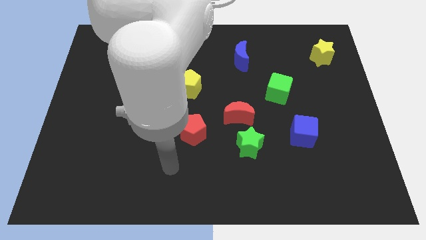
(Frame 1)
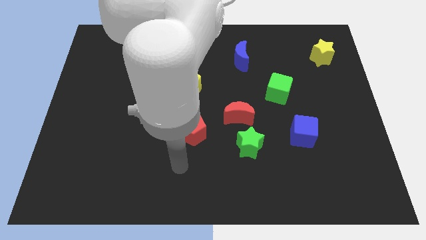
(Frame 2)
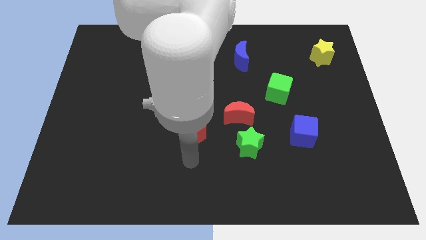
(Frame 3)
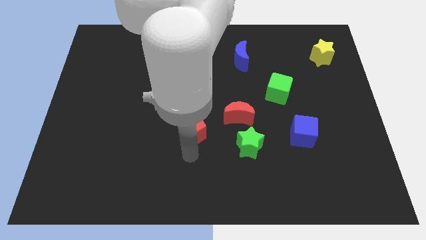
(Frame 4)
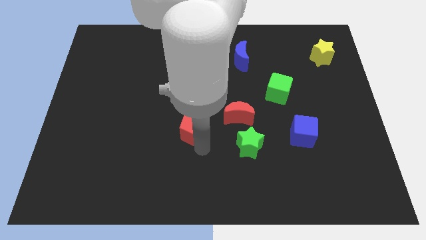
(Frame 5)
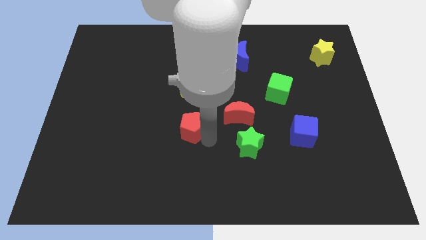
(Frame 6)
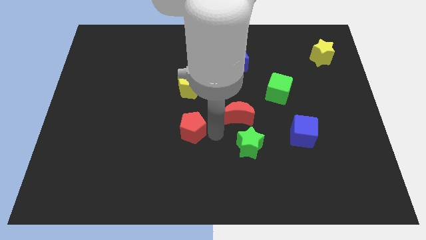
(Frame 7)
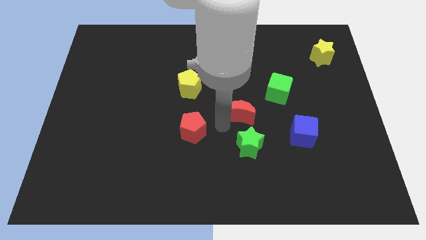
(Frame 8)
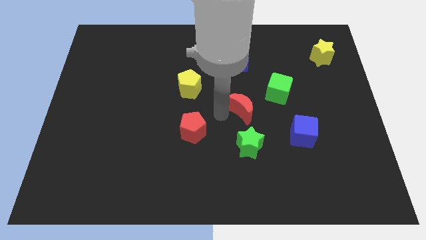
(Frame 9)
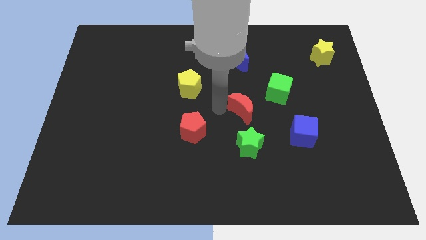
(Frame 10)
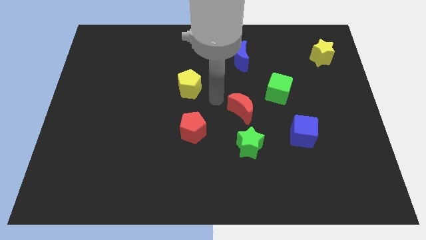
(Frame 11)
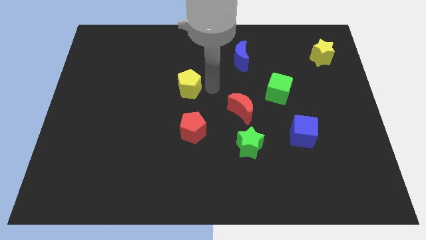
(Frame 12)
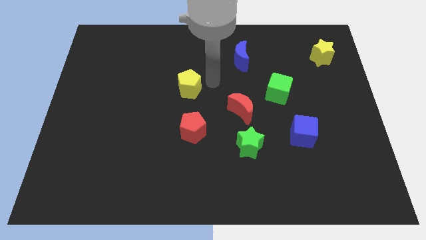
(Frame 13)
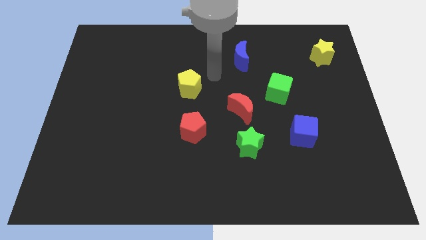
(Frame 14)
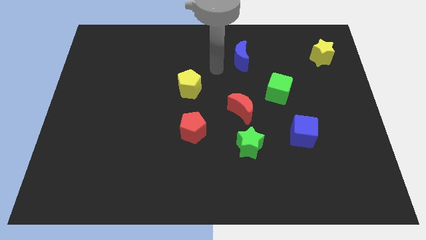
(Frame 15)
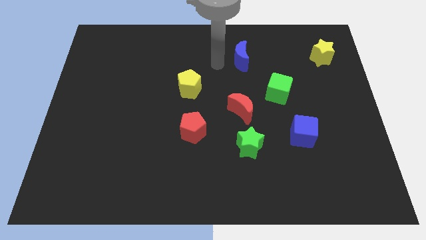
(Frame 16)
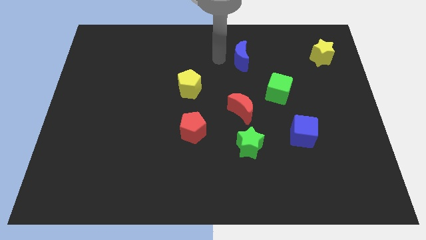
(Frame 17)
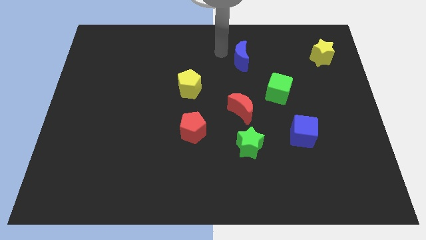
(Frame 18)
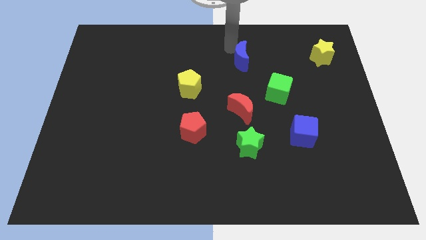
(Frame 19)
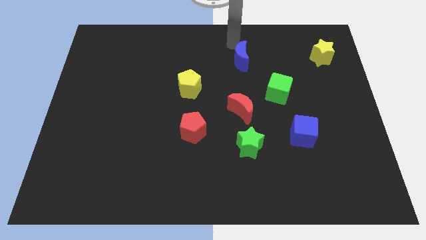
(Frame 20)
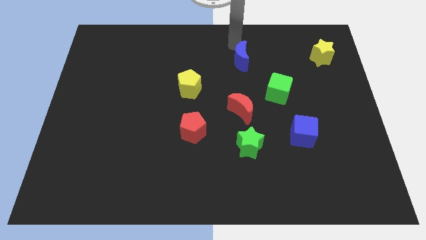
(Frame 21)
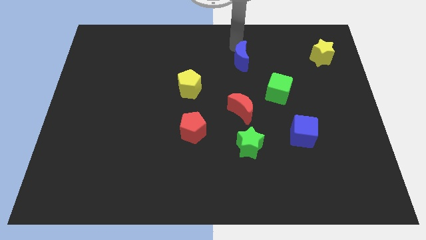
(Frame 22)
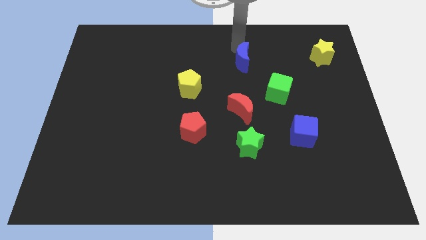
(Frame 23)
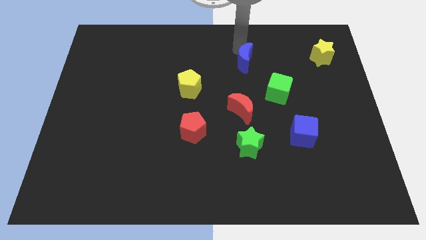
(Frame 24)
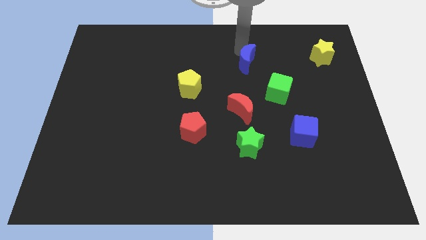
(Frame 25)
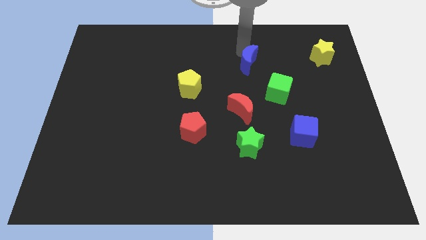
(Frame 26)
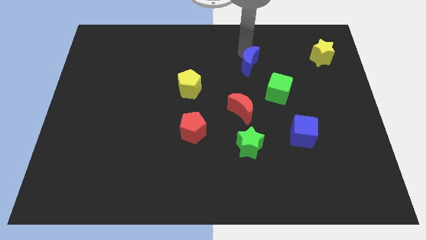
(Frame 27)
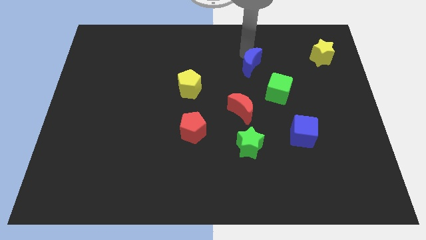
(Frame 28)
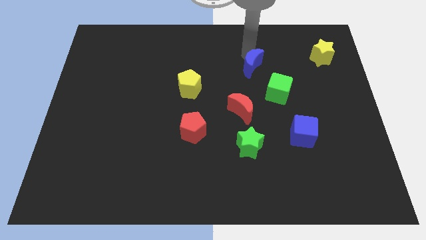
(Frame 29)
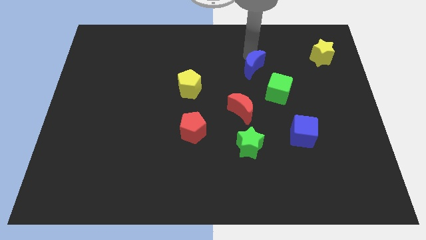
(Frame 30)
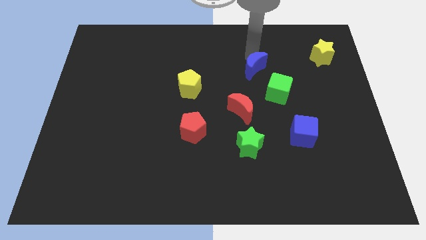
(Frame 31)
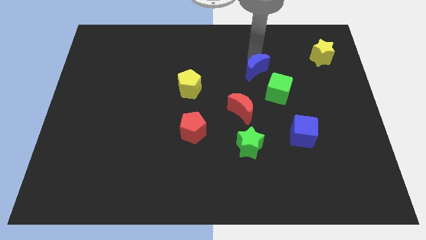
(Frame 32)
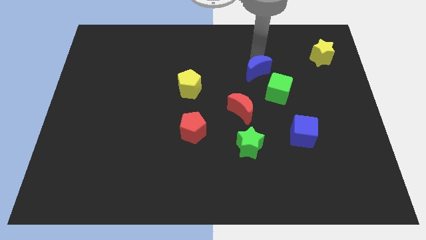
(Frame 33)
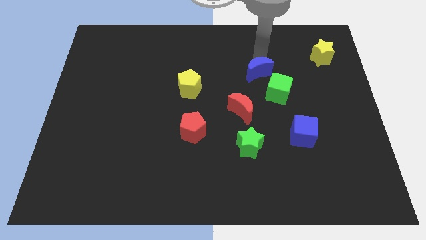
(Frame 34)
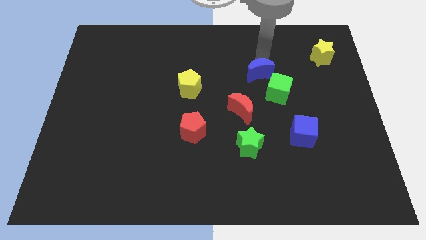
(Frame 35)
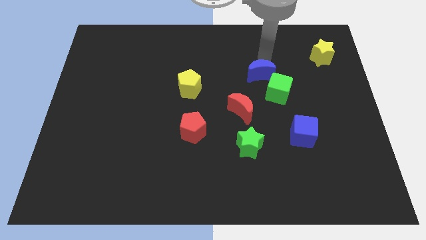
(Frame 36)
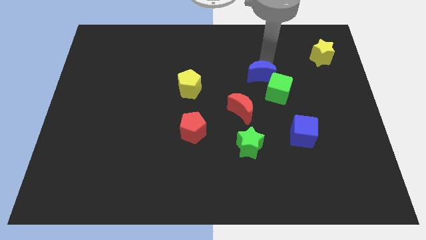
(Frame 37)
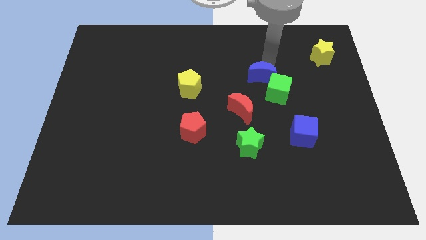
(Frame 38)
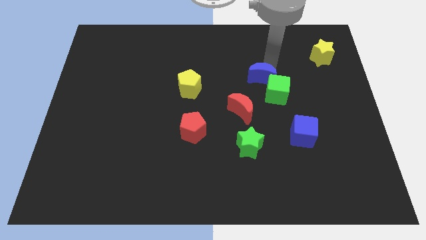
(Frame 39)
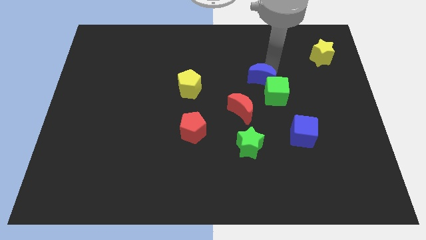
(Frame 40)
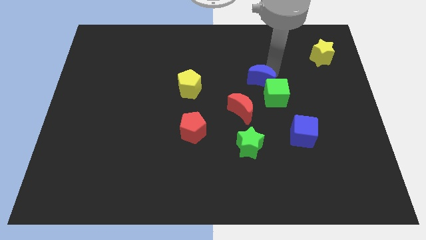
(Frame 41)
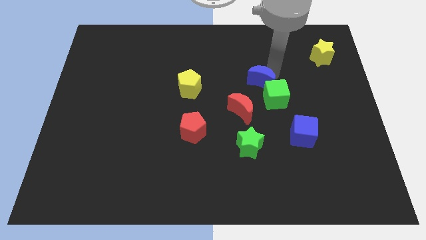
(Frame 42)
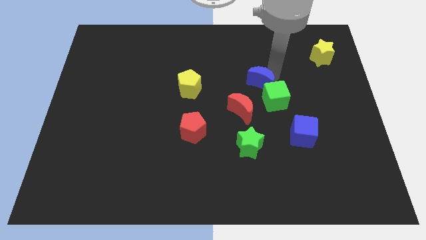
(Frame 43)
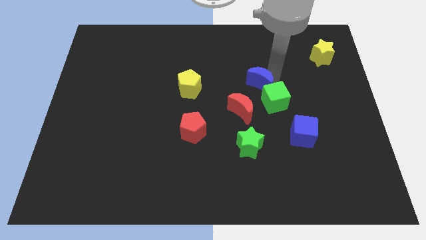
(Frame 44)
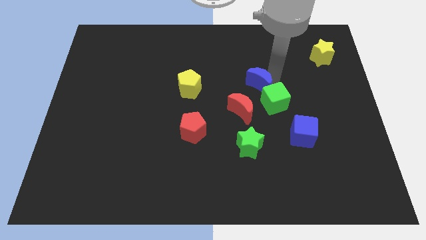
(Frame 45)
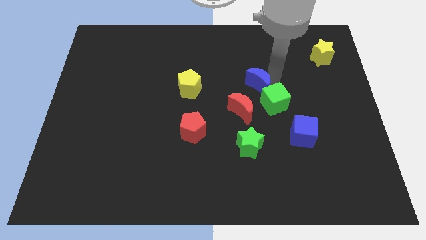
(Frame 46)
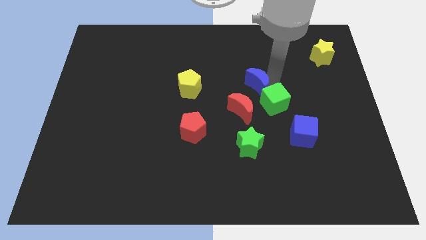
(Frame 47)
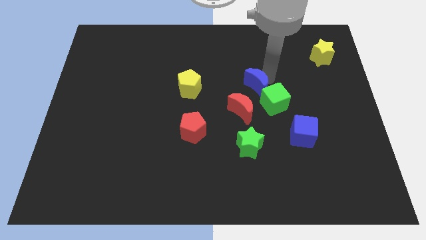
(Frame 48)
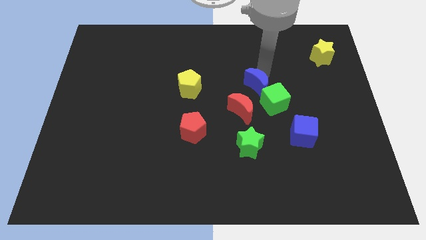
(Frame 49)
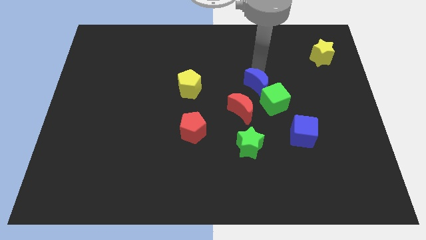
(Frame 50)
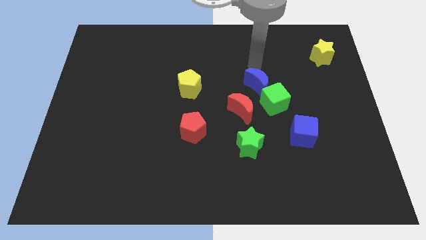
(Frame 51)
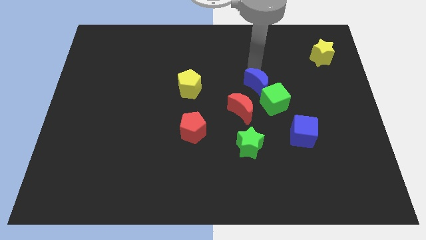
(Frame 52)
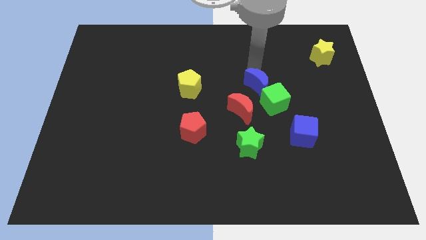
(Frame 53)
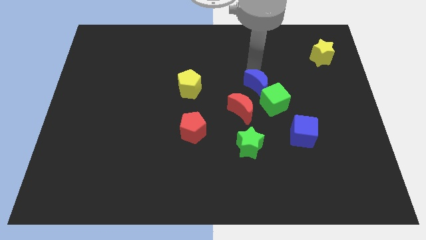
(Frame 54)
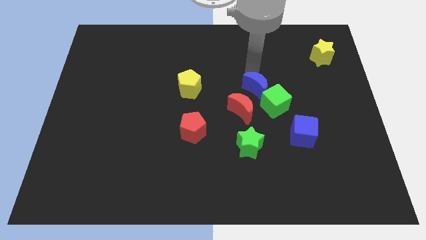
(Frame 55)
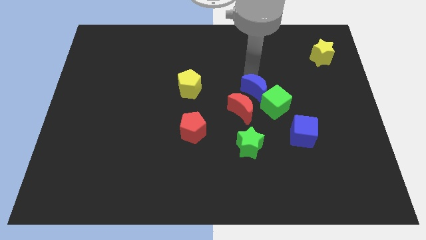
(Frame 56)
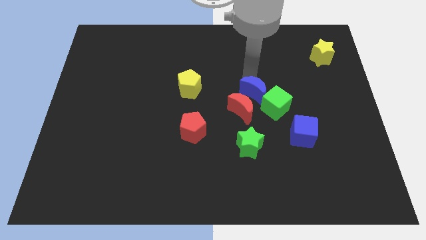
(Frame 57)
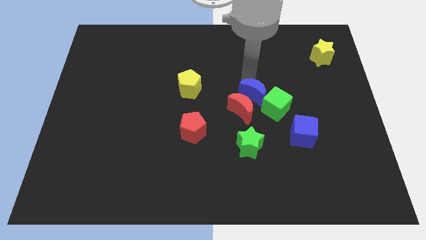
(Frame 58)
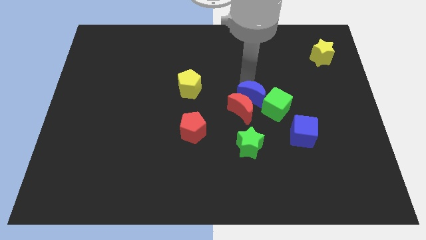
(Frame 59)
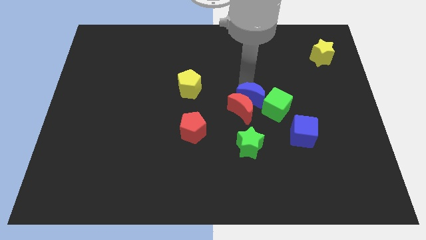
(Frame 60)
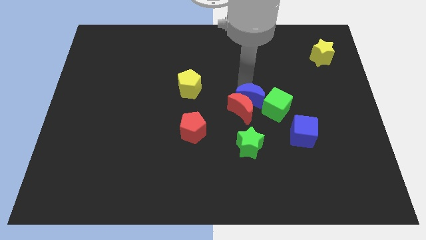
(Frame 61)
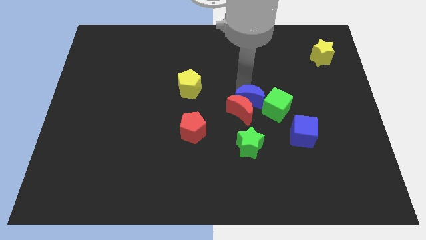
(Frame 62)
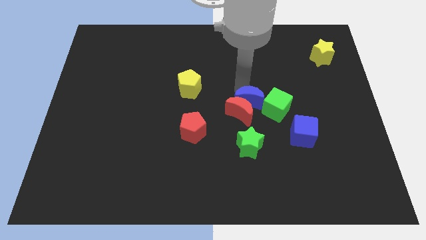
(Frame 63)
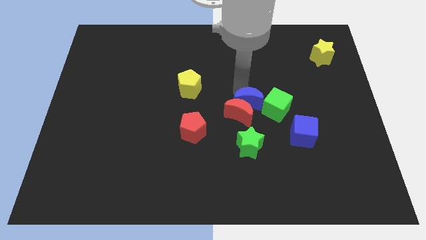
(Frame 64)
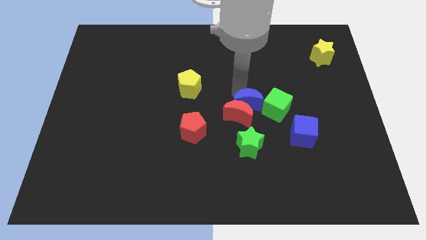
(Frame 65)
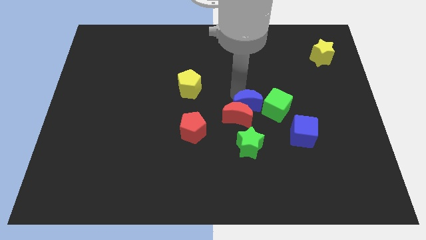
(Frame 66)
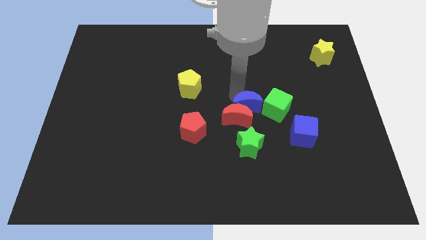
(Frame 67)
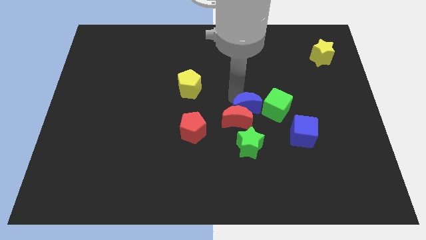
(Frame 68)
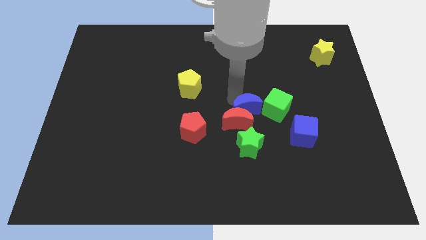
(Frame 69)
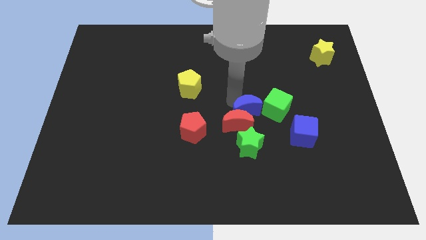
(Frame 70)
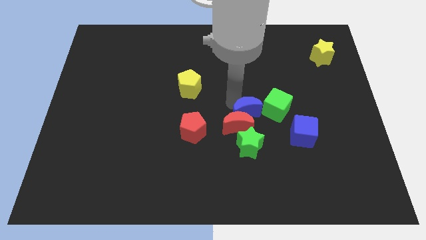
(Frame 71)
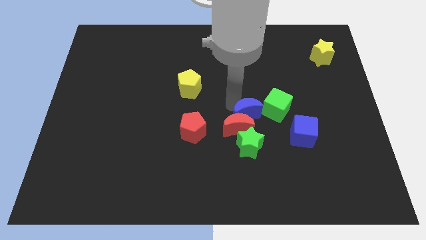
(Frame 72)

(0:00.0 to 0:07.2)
push the blue moon right of the red pentagon
